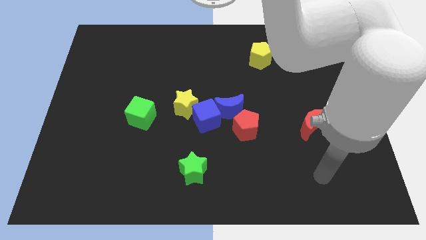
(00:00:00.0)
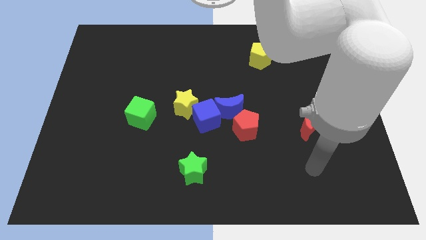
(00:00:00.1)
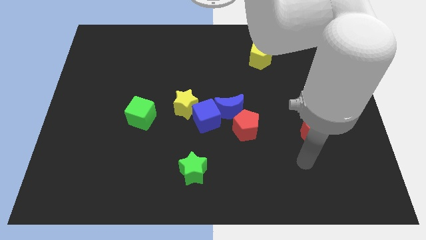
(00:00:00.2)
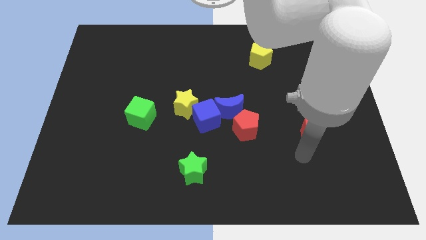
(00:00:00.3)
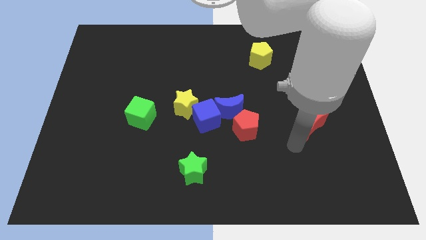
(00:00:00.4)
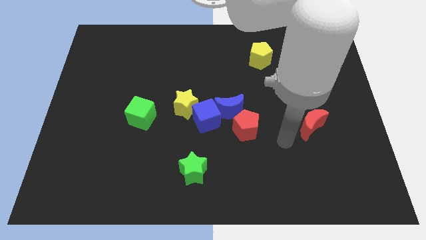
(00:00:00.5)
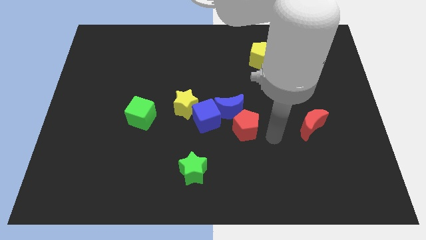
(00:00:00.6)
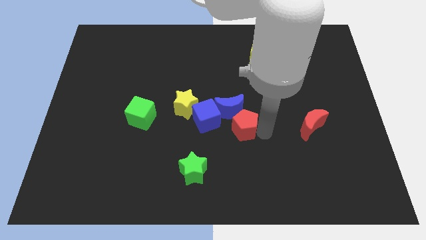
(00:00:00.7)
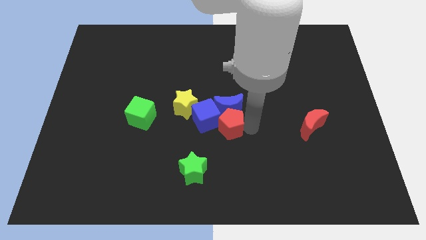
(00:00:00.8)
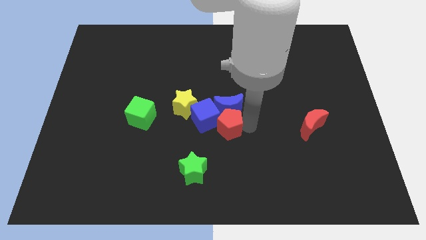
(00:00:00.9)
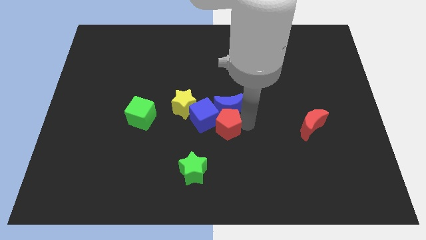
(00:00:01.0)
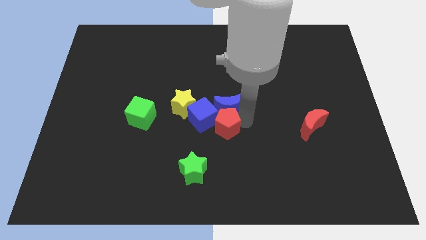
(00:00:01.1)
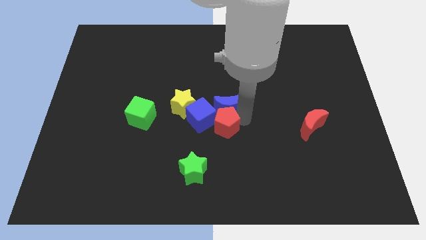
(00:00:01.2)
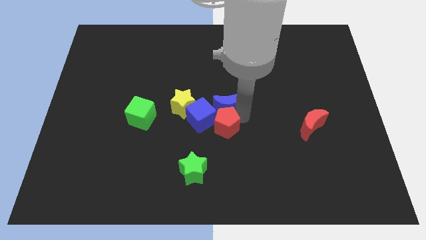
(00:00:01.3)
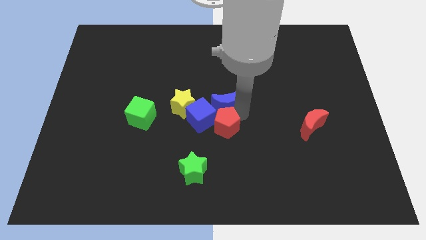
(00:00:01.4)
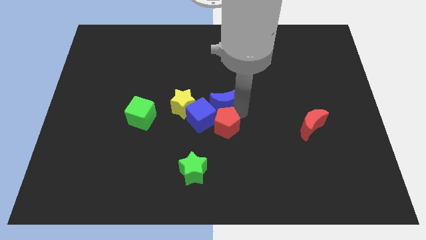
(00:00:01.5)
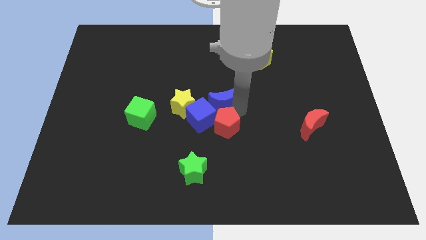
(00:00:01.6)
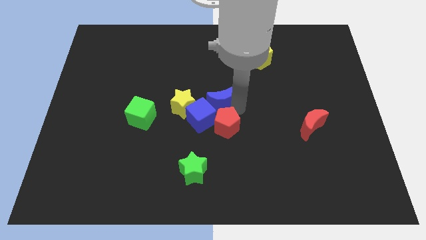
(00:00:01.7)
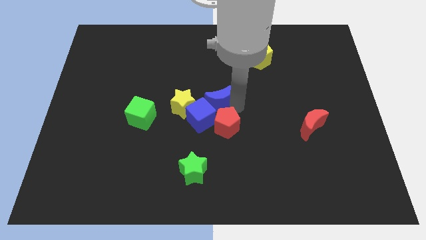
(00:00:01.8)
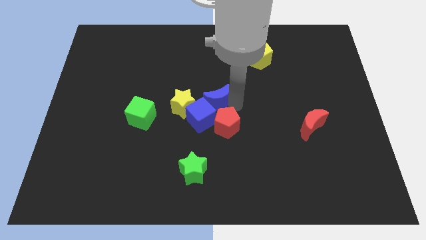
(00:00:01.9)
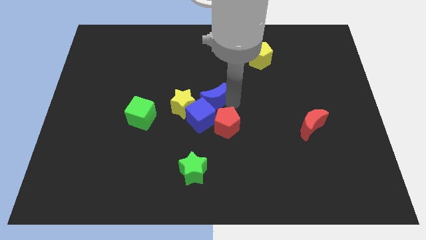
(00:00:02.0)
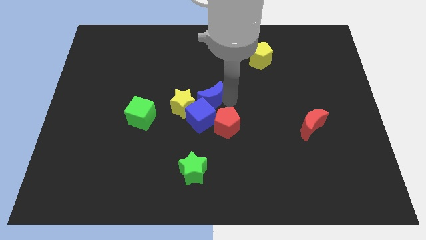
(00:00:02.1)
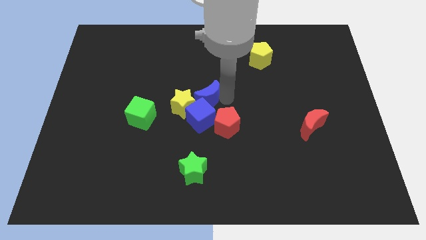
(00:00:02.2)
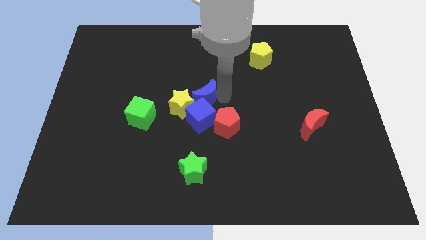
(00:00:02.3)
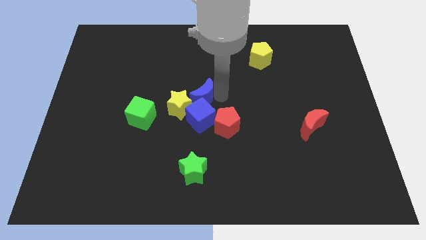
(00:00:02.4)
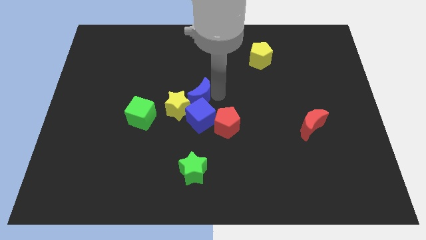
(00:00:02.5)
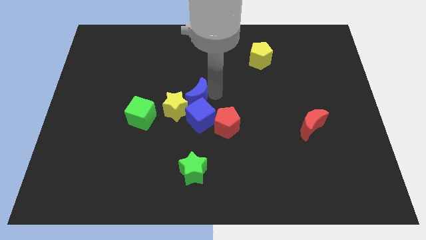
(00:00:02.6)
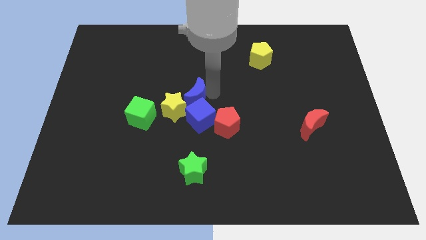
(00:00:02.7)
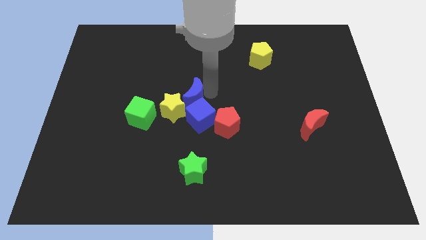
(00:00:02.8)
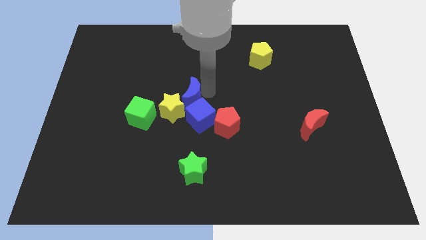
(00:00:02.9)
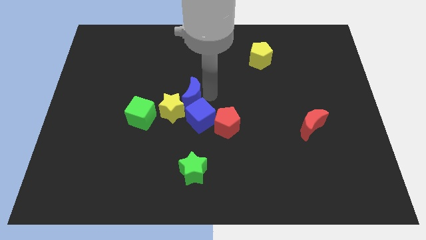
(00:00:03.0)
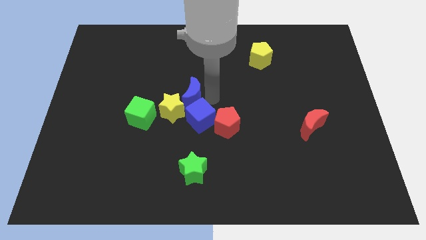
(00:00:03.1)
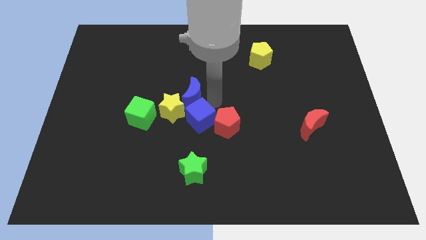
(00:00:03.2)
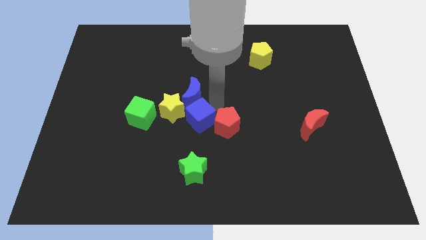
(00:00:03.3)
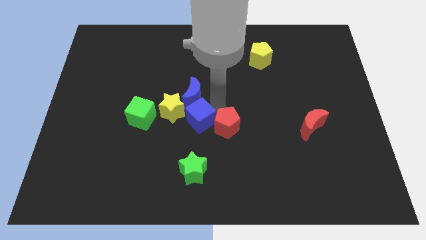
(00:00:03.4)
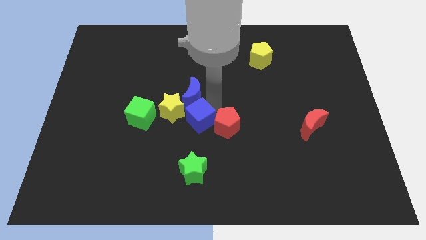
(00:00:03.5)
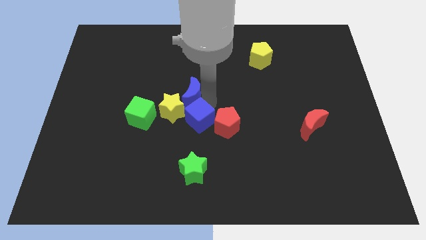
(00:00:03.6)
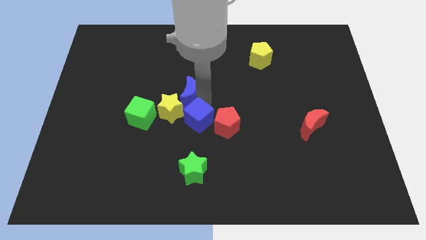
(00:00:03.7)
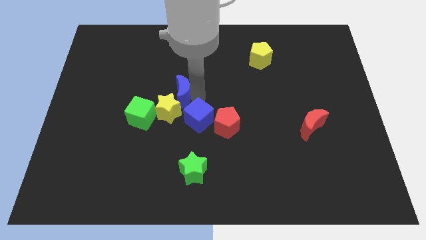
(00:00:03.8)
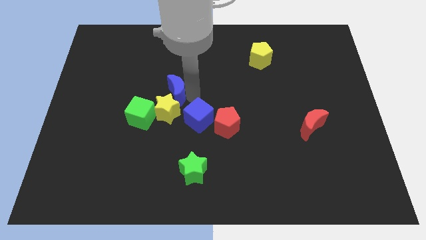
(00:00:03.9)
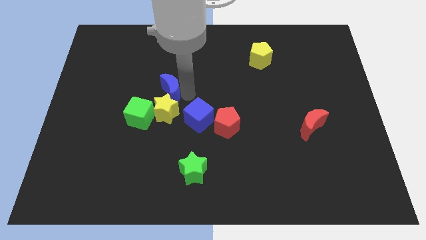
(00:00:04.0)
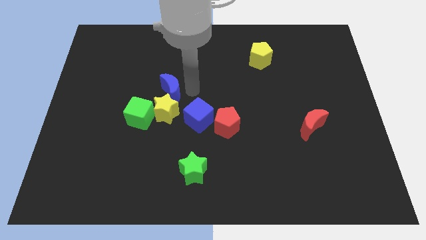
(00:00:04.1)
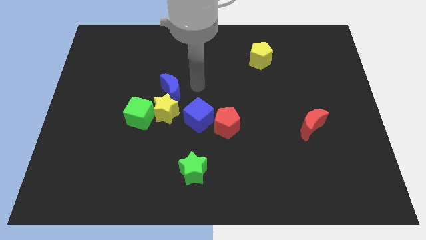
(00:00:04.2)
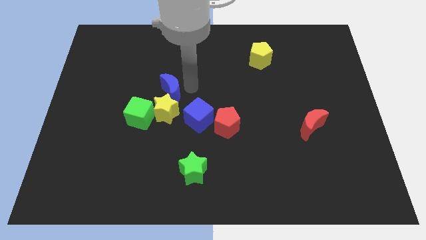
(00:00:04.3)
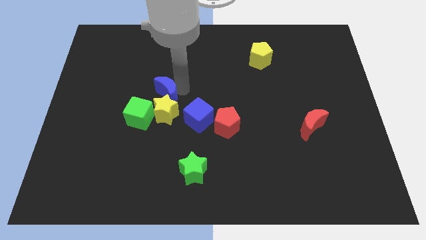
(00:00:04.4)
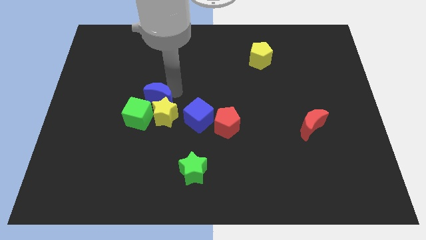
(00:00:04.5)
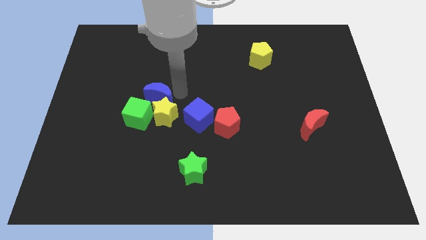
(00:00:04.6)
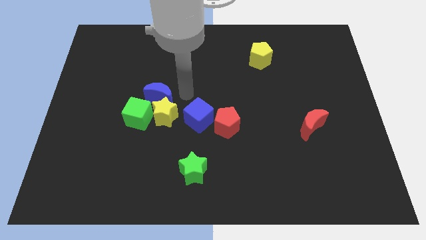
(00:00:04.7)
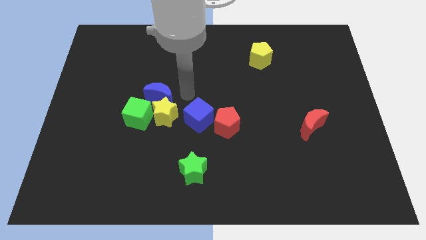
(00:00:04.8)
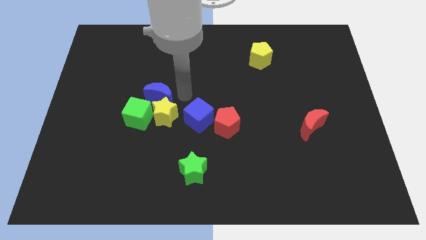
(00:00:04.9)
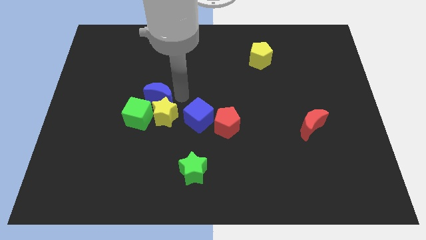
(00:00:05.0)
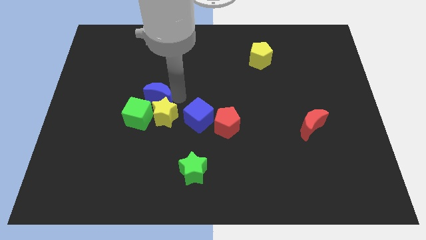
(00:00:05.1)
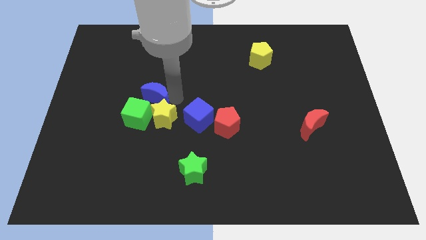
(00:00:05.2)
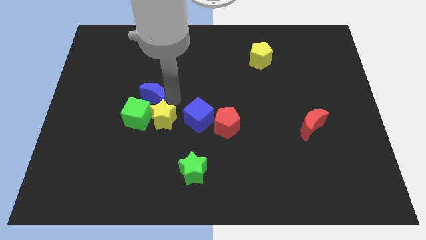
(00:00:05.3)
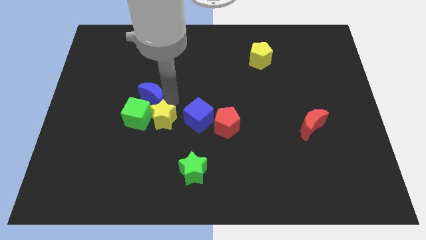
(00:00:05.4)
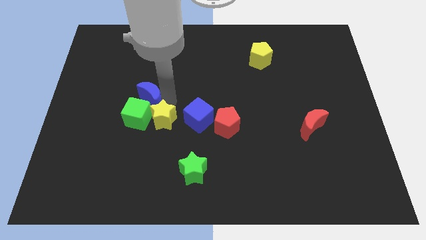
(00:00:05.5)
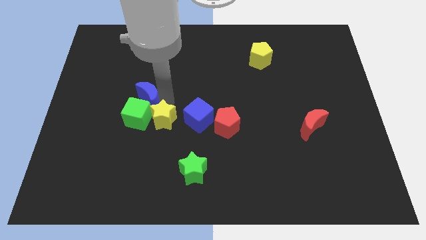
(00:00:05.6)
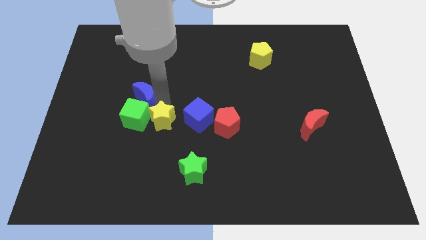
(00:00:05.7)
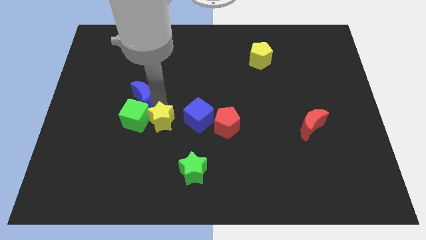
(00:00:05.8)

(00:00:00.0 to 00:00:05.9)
move the blue moon left

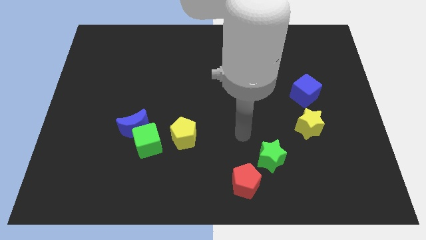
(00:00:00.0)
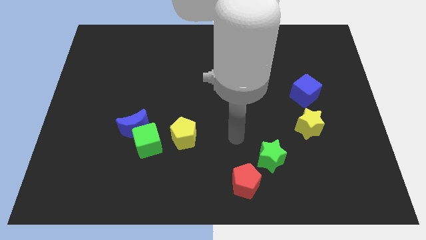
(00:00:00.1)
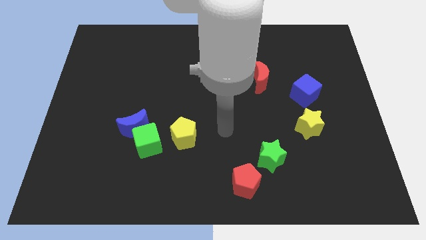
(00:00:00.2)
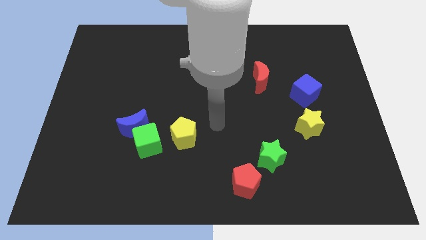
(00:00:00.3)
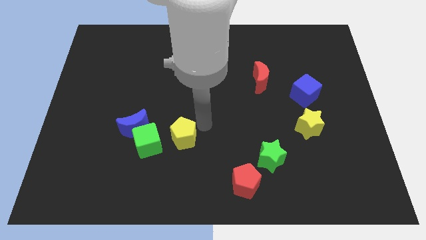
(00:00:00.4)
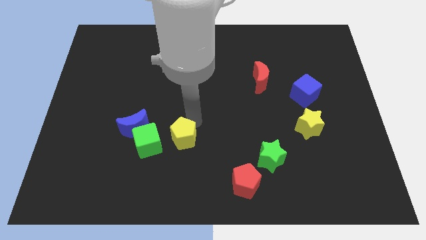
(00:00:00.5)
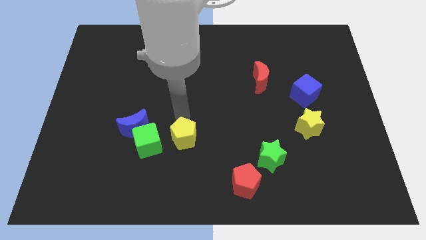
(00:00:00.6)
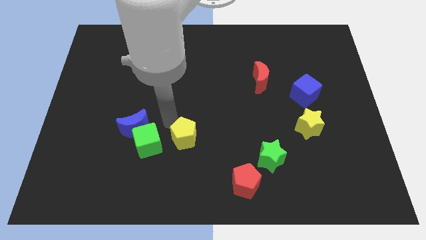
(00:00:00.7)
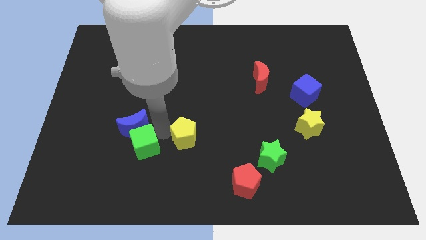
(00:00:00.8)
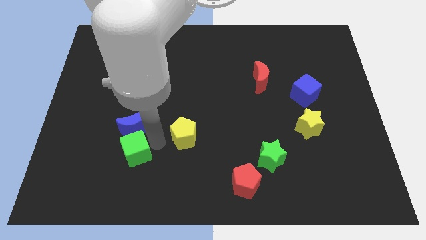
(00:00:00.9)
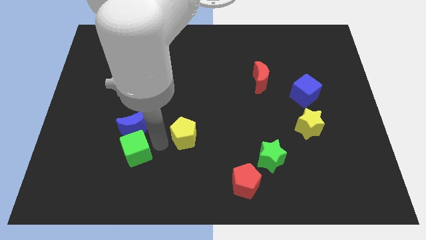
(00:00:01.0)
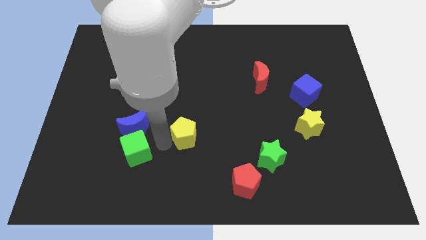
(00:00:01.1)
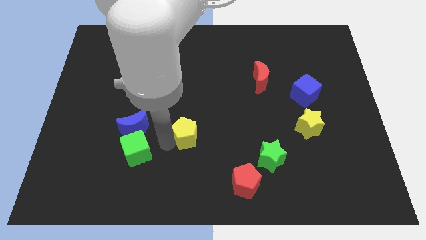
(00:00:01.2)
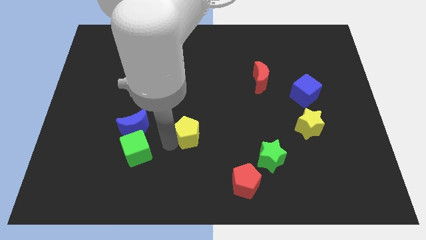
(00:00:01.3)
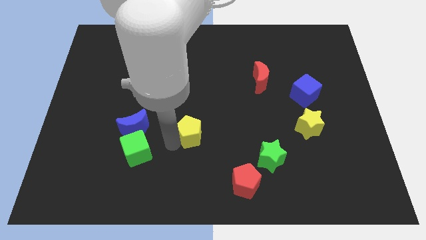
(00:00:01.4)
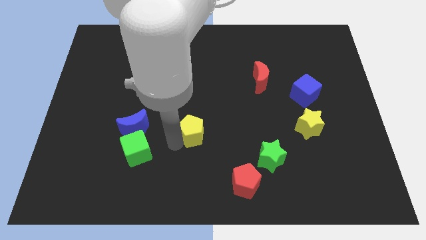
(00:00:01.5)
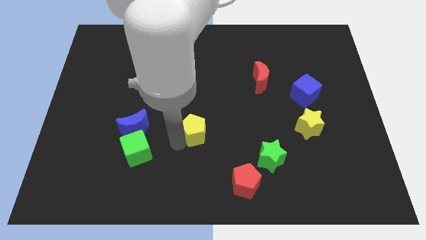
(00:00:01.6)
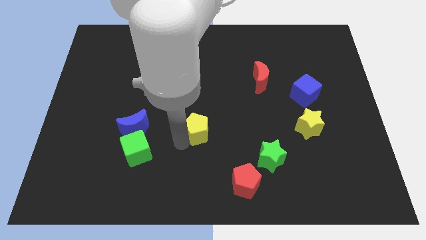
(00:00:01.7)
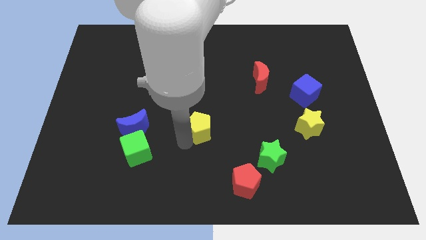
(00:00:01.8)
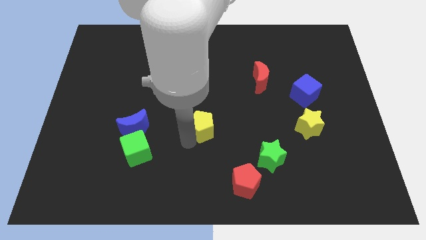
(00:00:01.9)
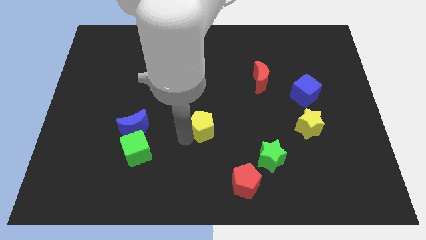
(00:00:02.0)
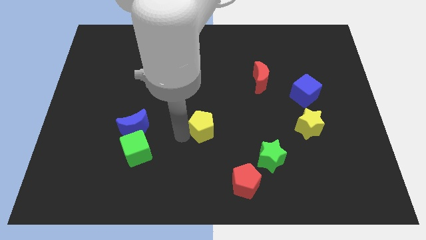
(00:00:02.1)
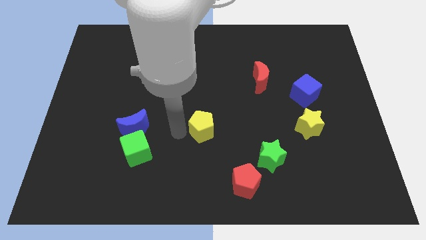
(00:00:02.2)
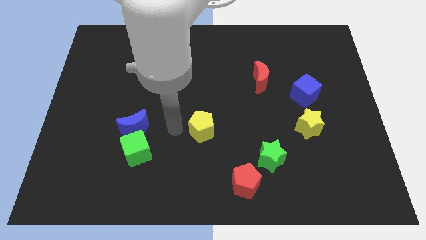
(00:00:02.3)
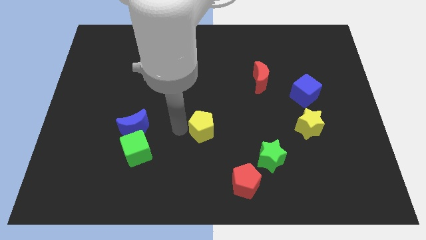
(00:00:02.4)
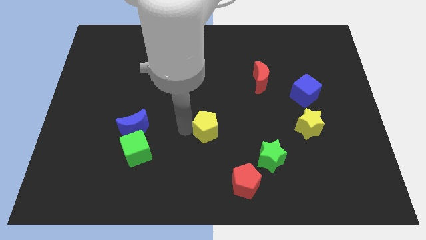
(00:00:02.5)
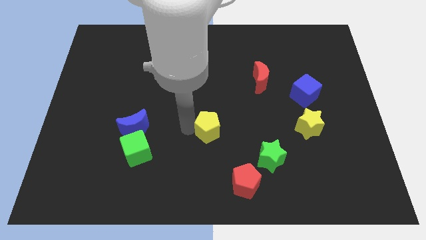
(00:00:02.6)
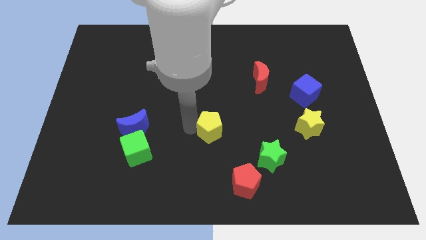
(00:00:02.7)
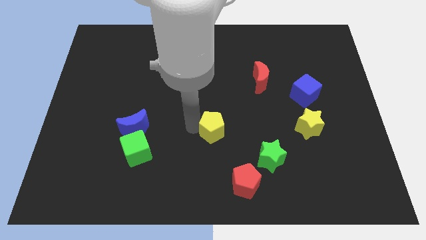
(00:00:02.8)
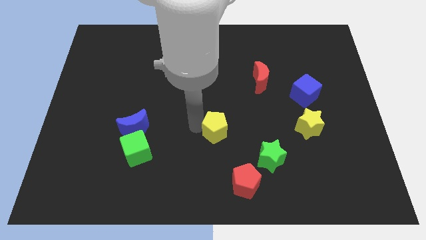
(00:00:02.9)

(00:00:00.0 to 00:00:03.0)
slide the yellow pentagon right a little
